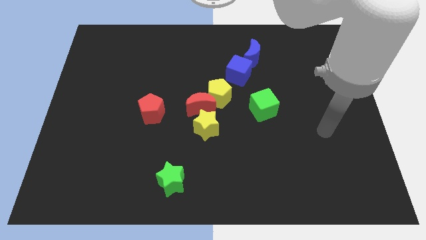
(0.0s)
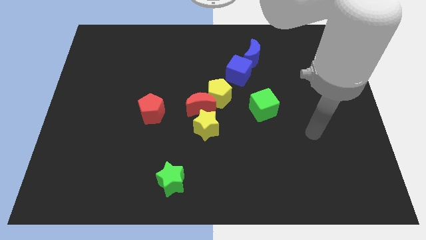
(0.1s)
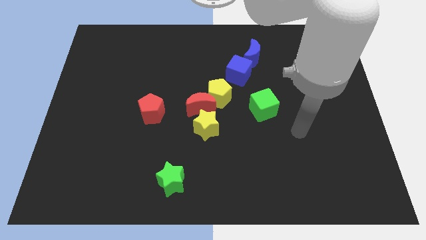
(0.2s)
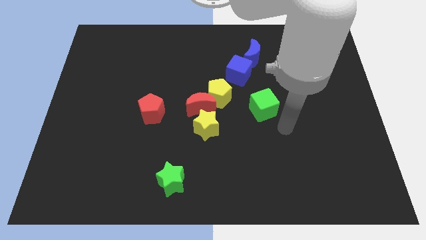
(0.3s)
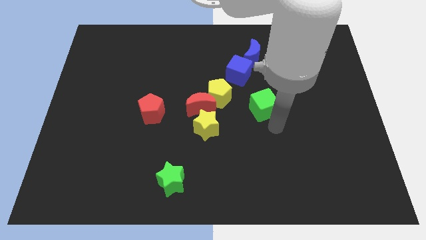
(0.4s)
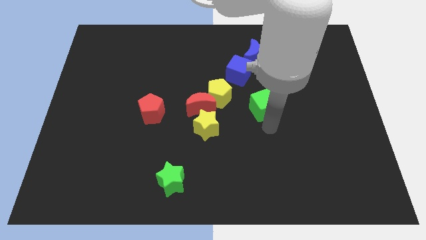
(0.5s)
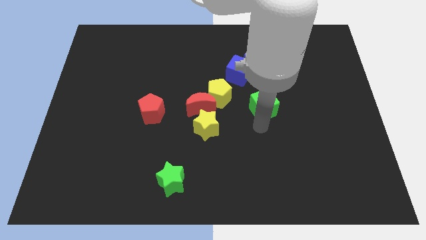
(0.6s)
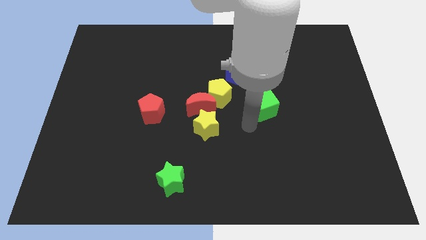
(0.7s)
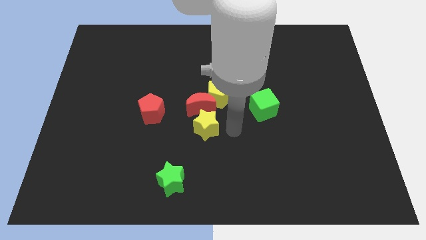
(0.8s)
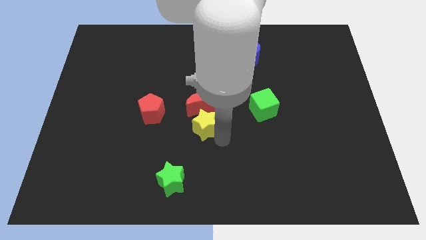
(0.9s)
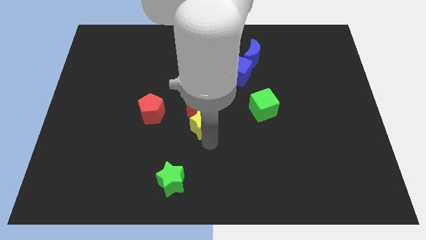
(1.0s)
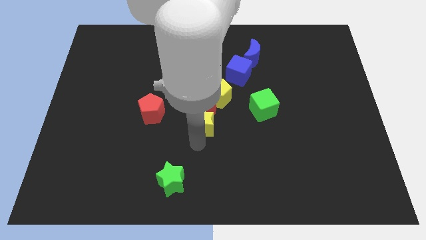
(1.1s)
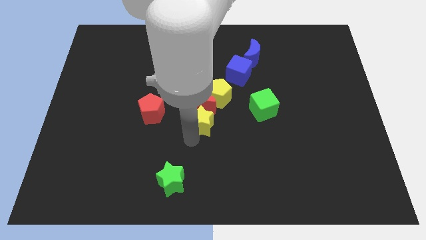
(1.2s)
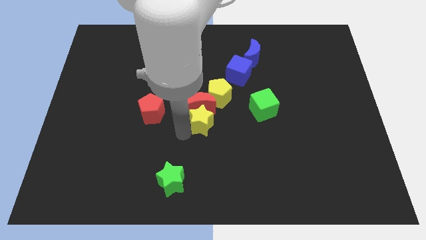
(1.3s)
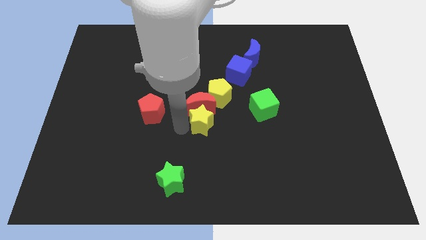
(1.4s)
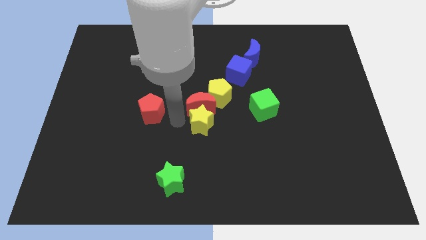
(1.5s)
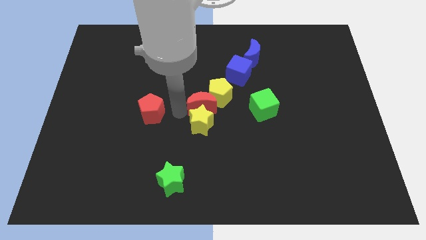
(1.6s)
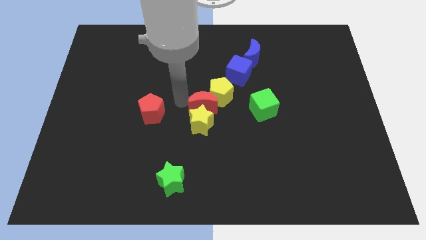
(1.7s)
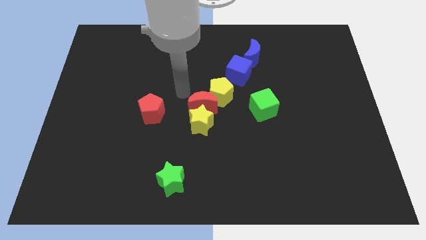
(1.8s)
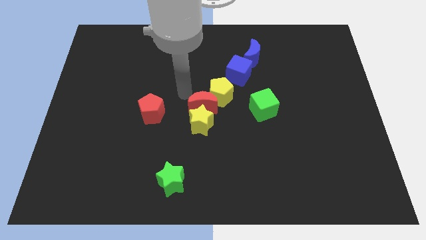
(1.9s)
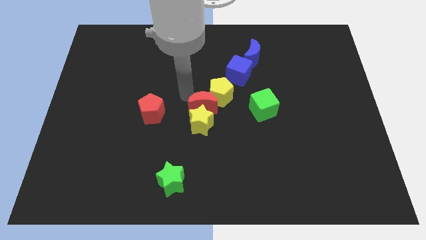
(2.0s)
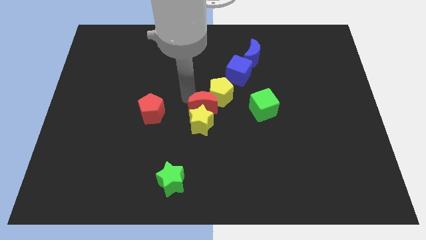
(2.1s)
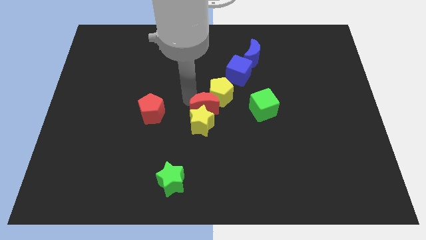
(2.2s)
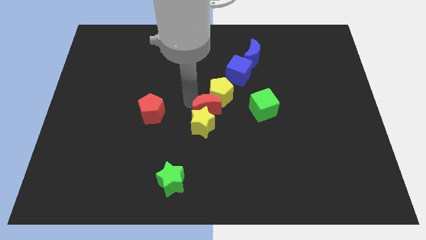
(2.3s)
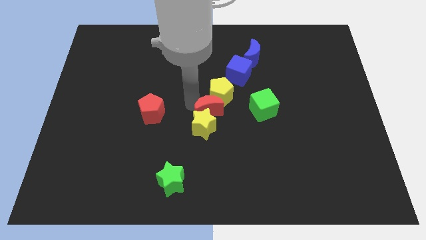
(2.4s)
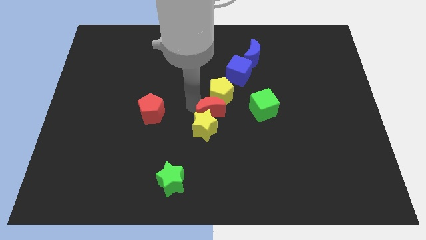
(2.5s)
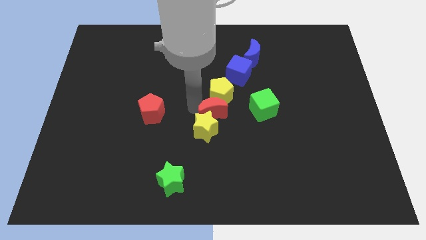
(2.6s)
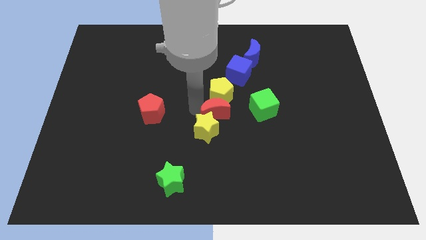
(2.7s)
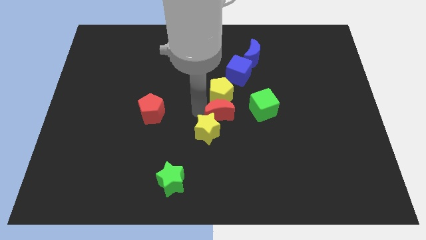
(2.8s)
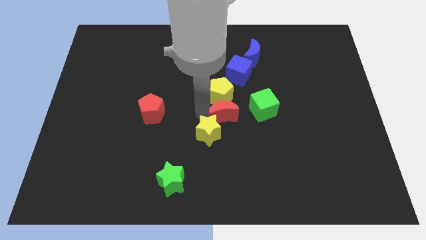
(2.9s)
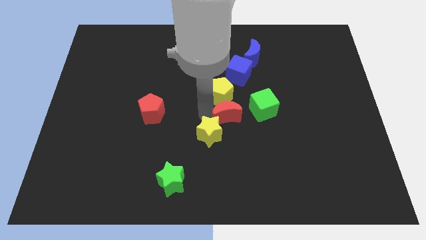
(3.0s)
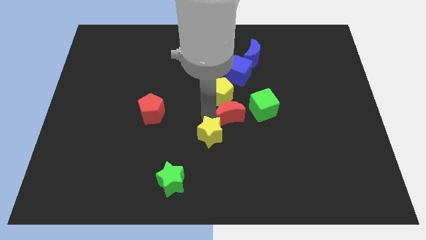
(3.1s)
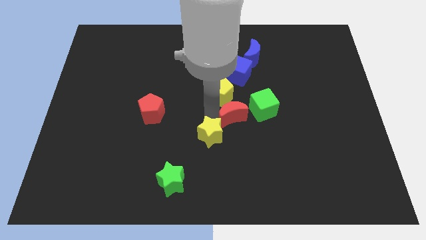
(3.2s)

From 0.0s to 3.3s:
move the red moon diagonally down and to the right a little

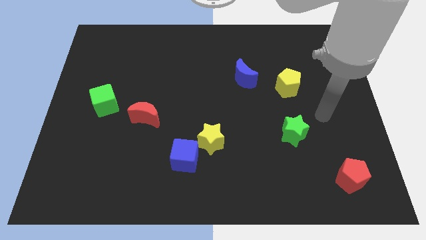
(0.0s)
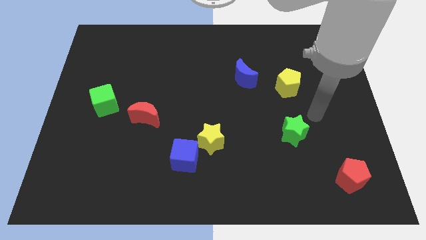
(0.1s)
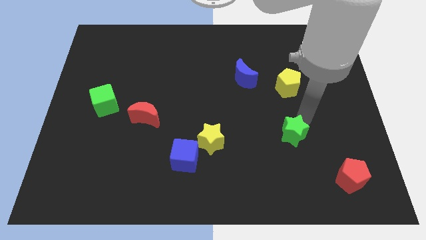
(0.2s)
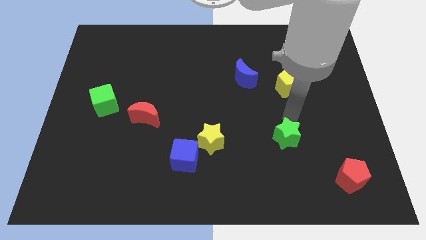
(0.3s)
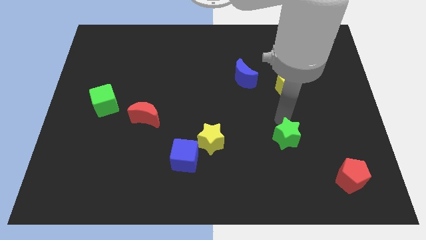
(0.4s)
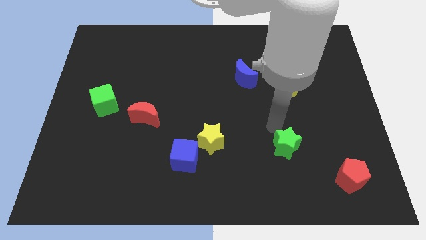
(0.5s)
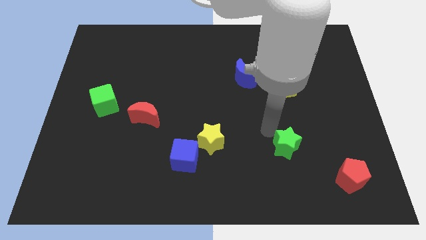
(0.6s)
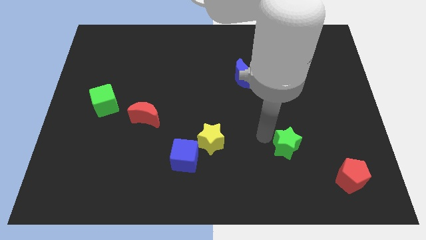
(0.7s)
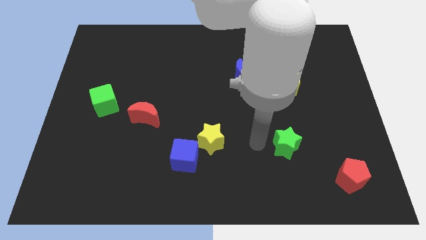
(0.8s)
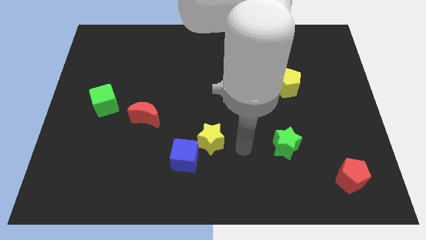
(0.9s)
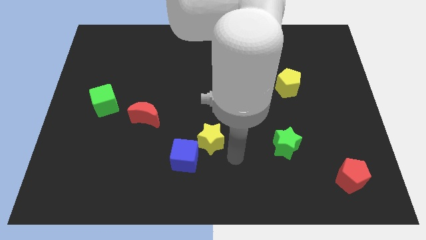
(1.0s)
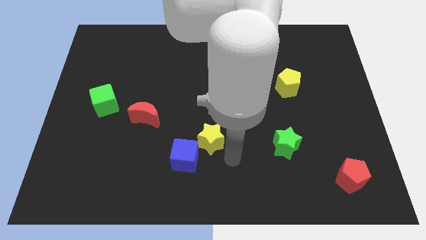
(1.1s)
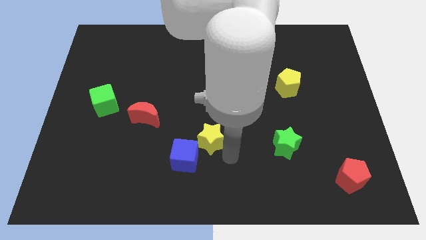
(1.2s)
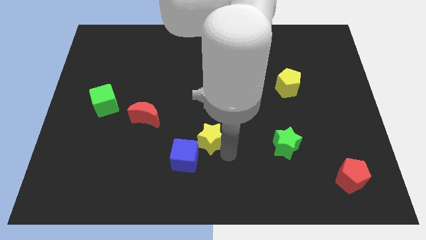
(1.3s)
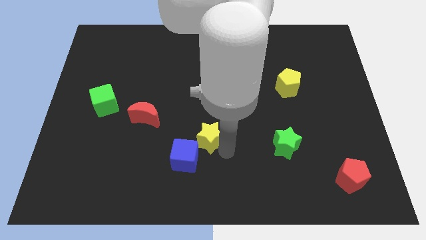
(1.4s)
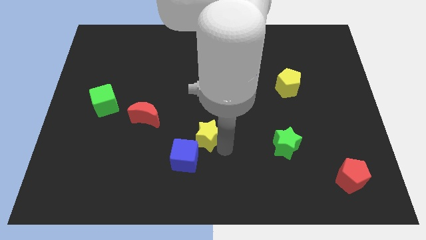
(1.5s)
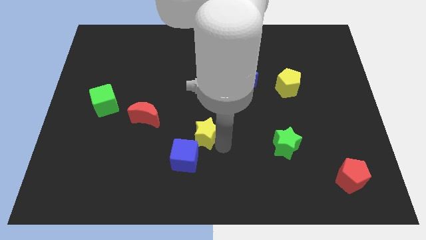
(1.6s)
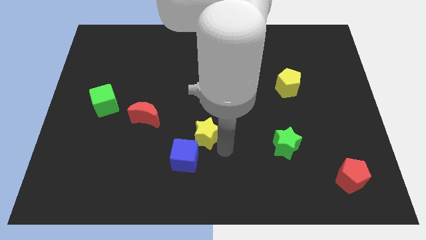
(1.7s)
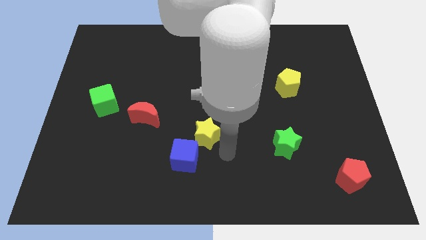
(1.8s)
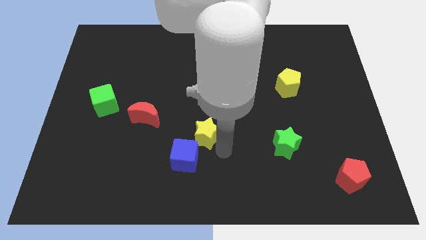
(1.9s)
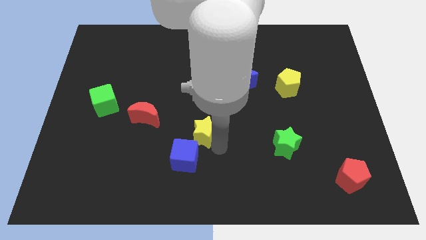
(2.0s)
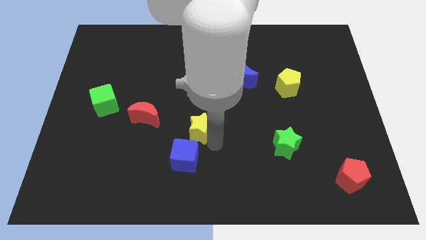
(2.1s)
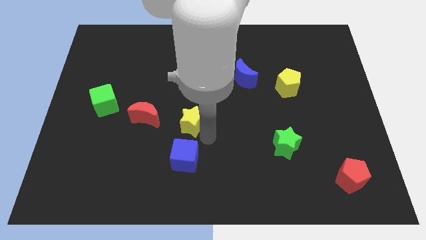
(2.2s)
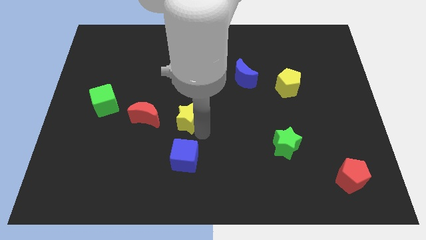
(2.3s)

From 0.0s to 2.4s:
push the yellow star somewhat diagonally up and left

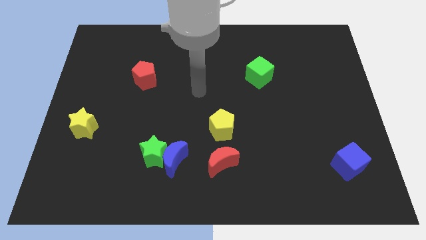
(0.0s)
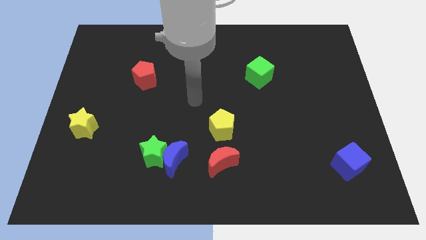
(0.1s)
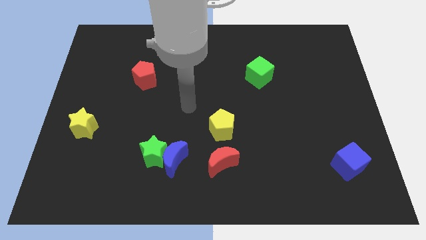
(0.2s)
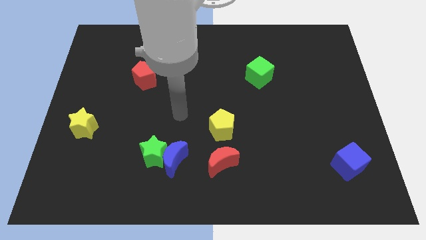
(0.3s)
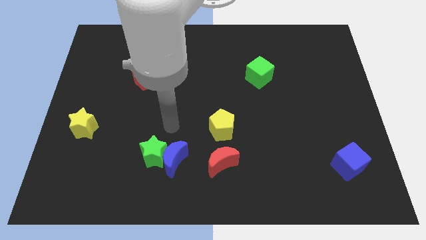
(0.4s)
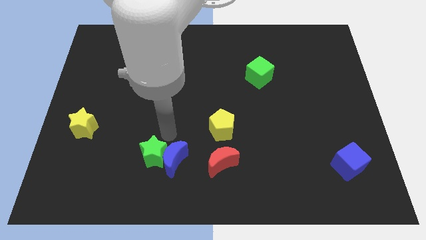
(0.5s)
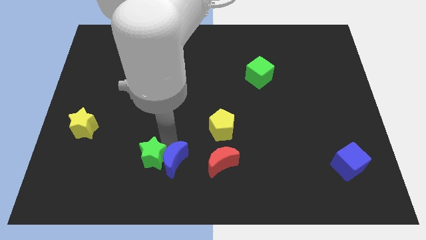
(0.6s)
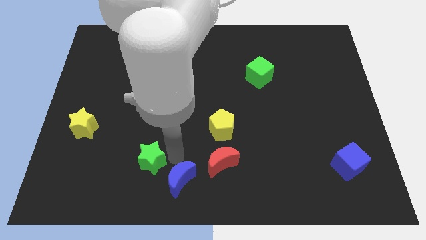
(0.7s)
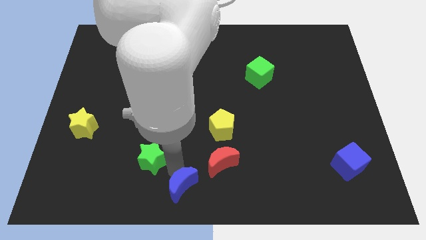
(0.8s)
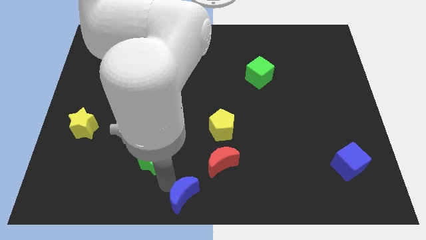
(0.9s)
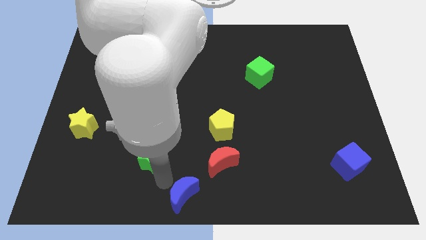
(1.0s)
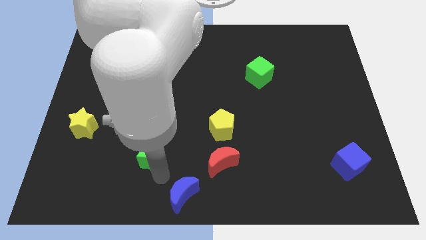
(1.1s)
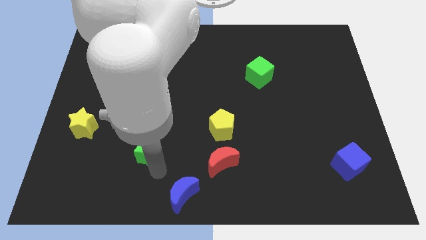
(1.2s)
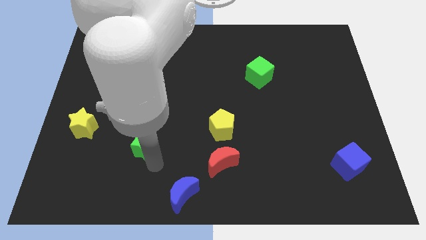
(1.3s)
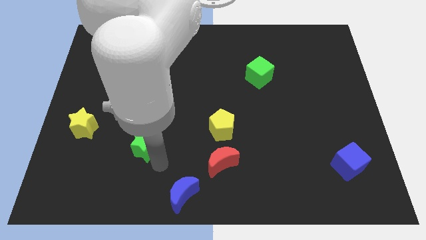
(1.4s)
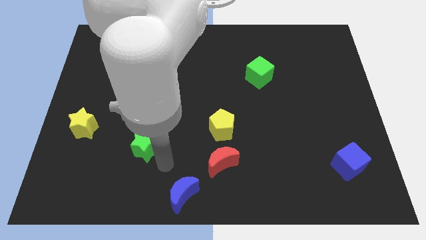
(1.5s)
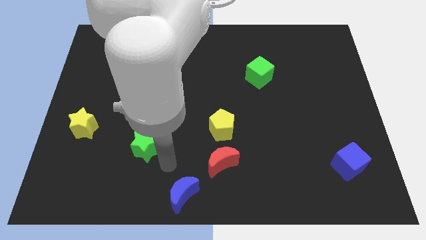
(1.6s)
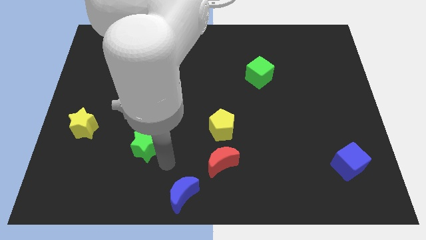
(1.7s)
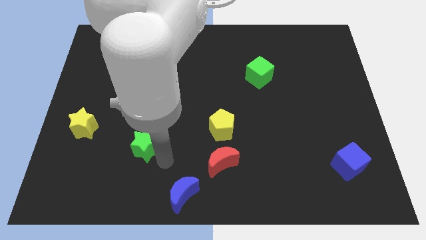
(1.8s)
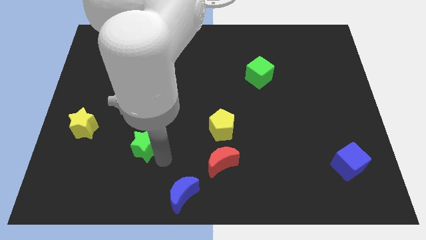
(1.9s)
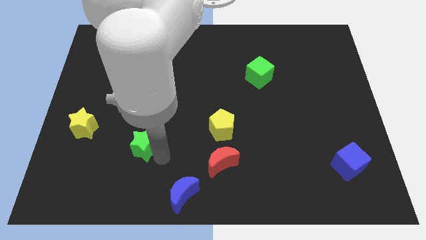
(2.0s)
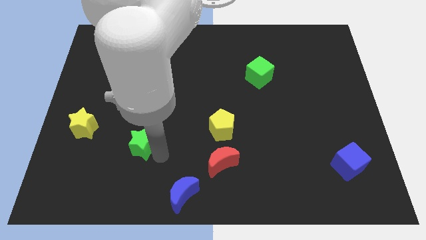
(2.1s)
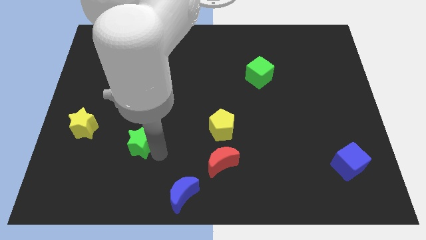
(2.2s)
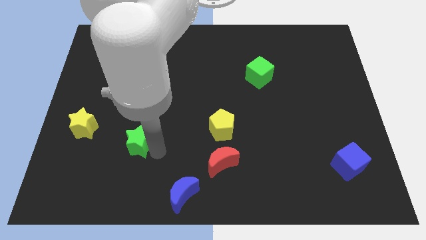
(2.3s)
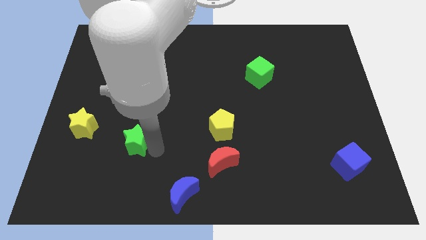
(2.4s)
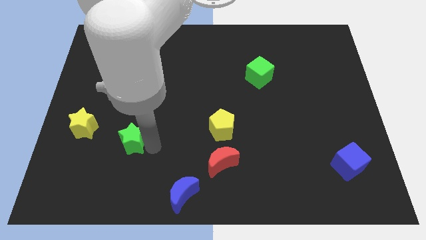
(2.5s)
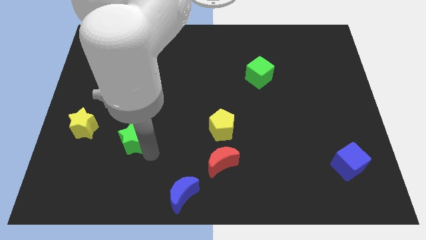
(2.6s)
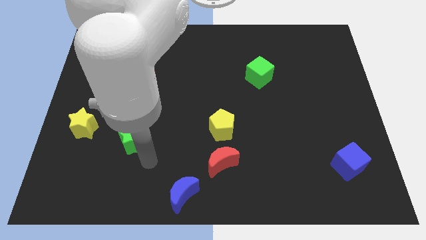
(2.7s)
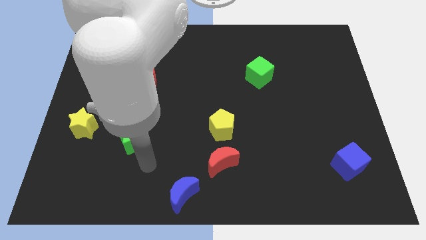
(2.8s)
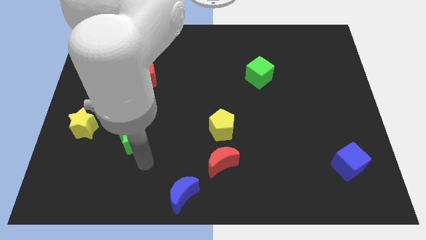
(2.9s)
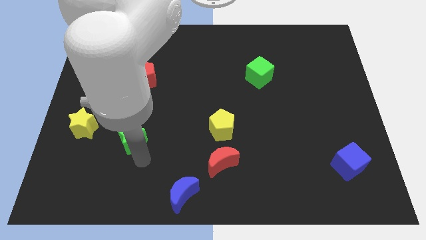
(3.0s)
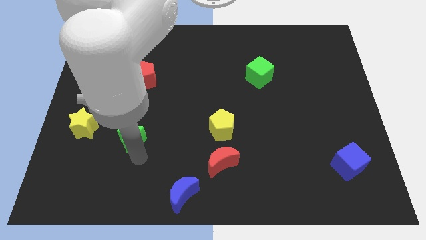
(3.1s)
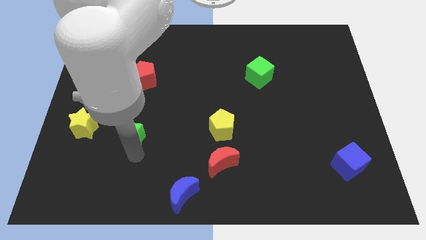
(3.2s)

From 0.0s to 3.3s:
move the green star up and left diagonally a little bit
